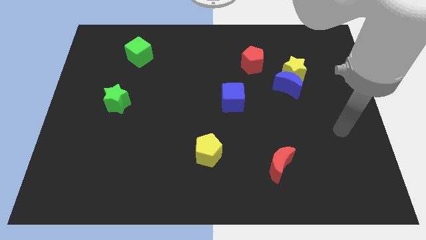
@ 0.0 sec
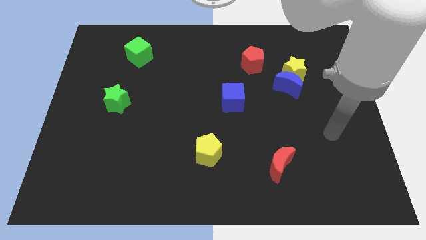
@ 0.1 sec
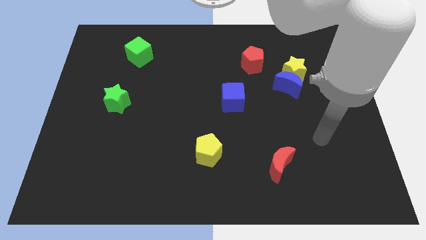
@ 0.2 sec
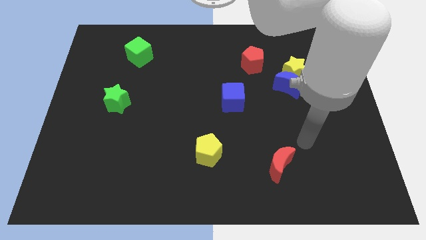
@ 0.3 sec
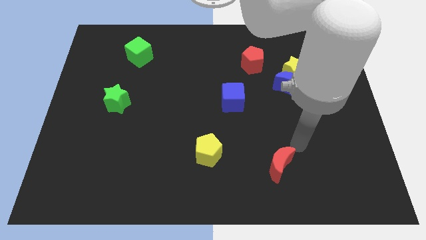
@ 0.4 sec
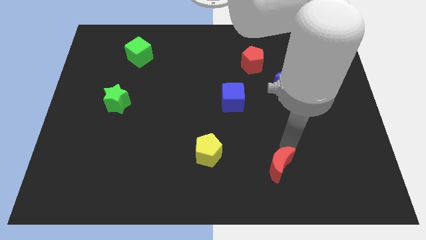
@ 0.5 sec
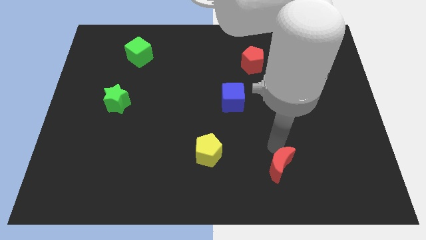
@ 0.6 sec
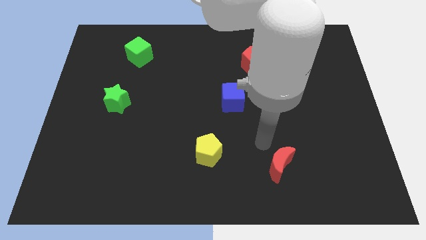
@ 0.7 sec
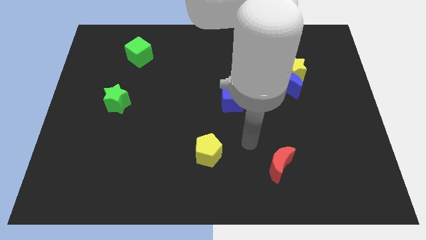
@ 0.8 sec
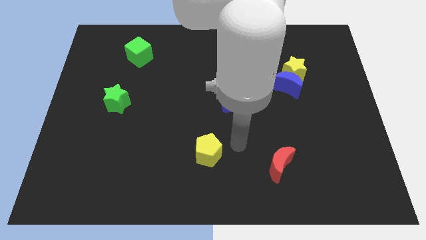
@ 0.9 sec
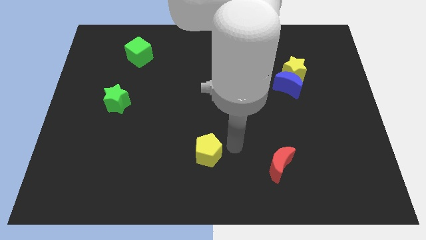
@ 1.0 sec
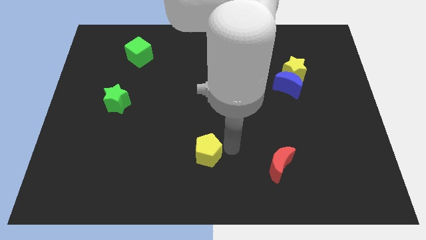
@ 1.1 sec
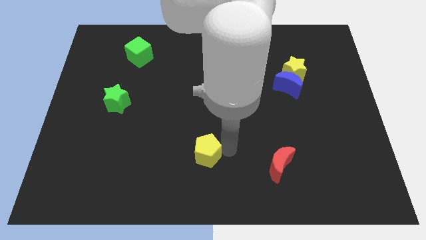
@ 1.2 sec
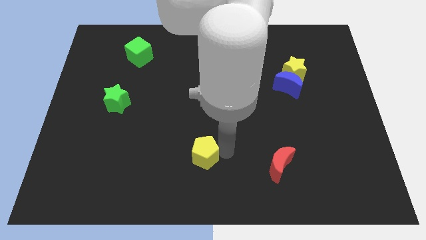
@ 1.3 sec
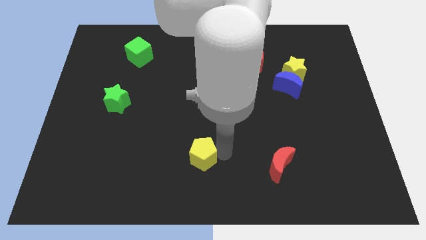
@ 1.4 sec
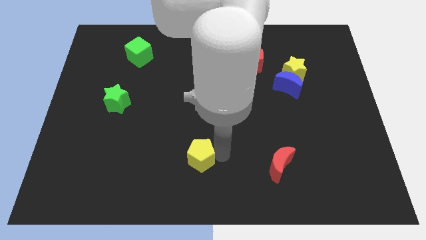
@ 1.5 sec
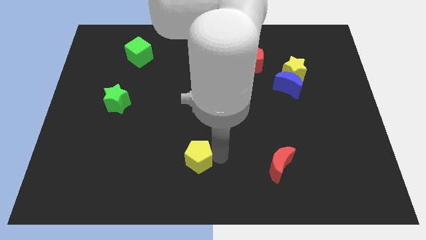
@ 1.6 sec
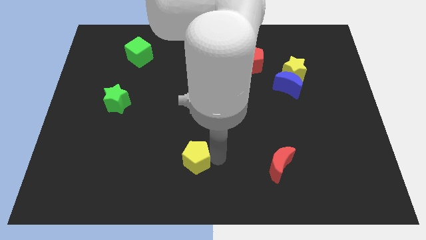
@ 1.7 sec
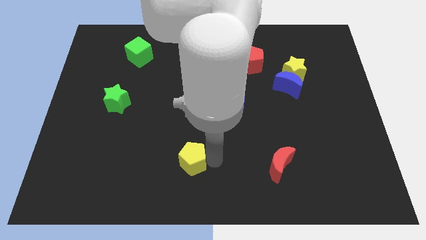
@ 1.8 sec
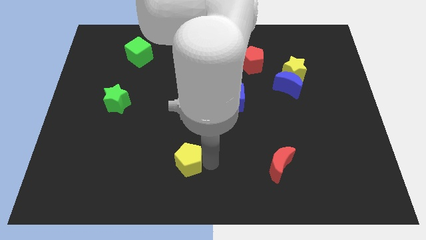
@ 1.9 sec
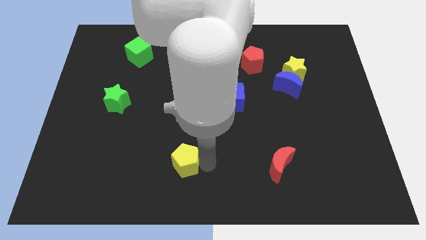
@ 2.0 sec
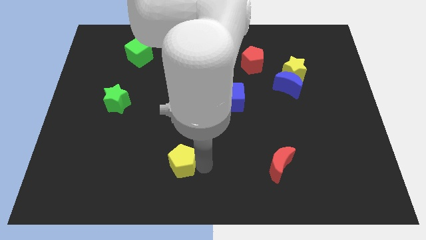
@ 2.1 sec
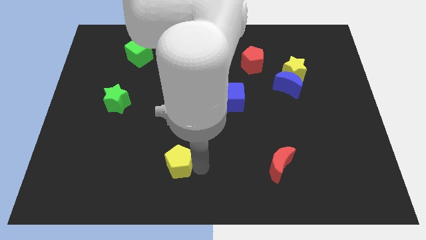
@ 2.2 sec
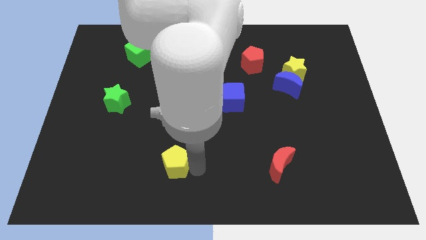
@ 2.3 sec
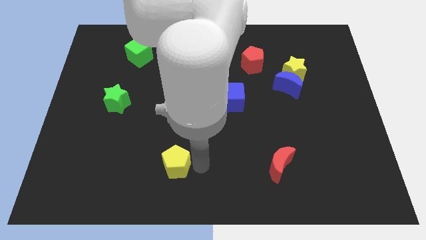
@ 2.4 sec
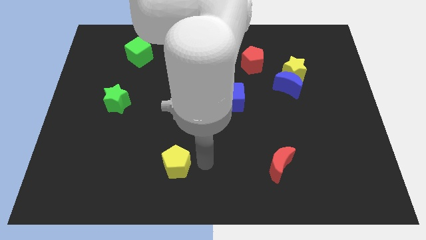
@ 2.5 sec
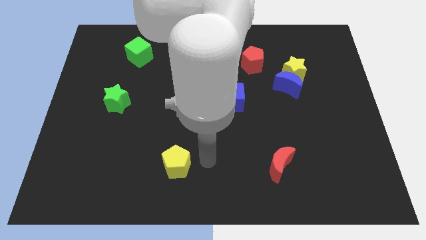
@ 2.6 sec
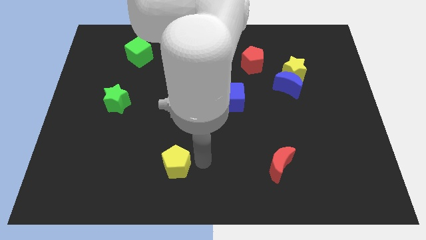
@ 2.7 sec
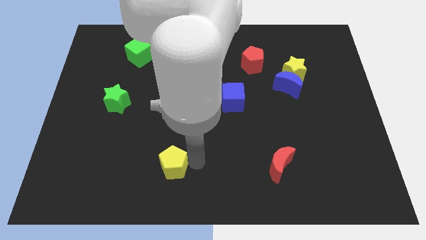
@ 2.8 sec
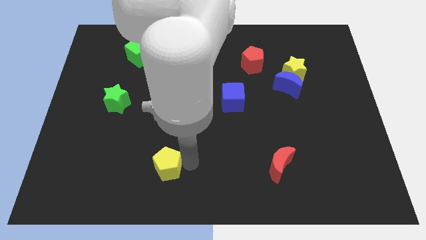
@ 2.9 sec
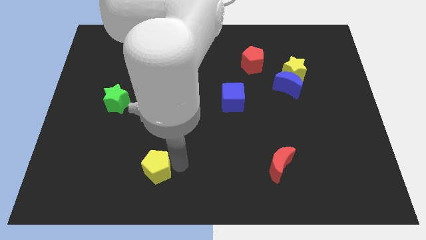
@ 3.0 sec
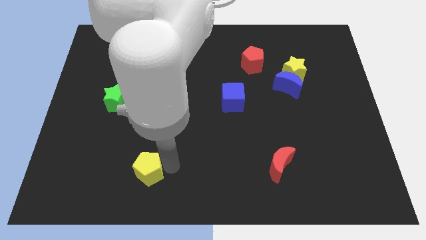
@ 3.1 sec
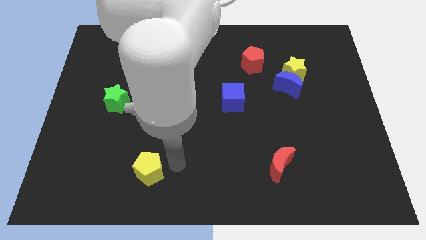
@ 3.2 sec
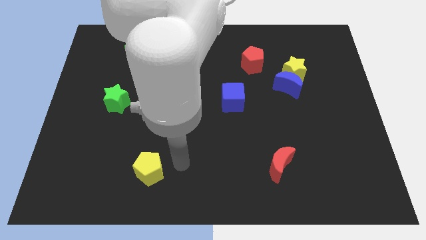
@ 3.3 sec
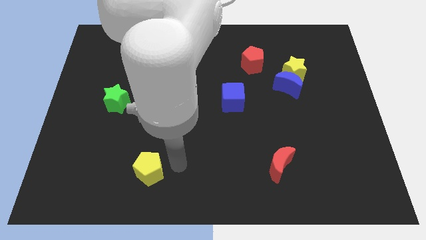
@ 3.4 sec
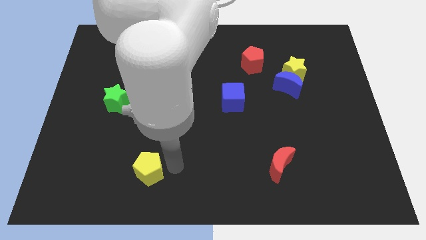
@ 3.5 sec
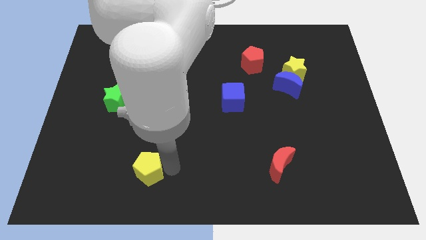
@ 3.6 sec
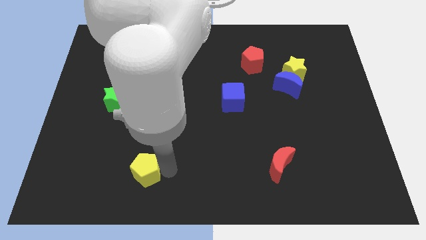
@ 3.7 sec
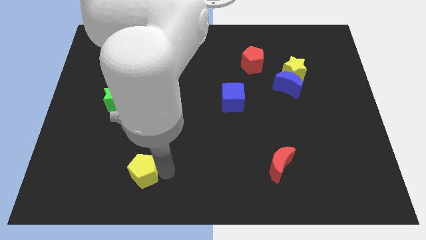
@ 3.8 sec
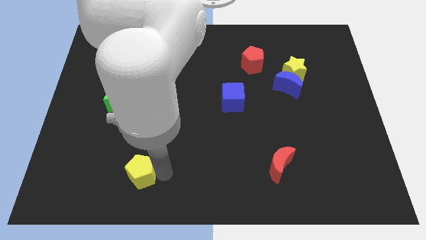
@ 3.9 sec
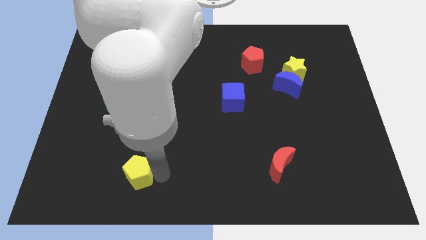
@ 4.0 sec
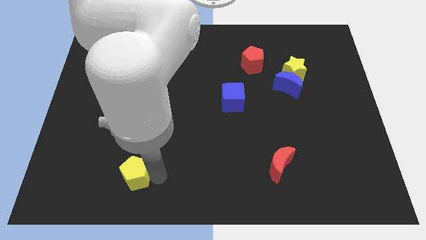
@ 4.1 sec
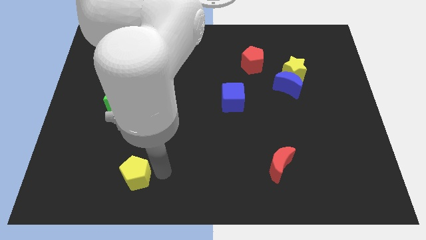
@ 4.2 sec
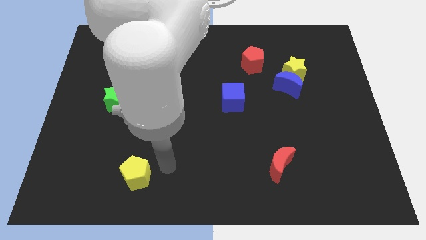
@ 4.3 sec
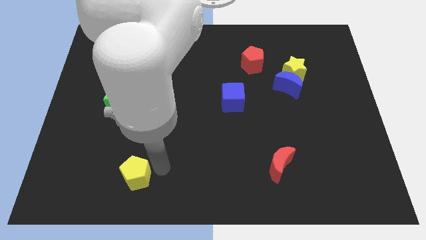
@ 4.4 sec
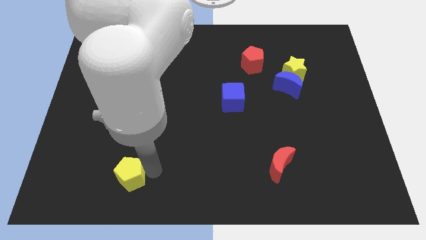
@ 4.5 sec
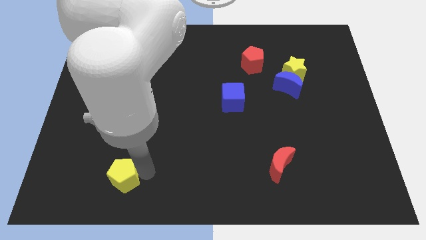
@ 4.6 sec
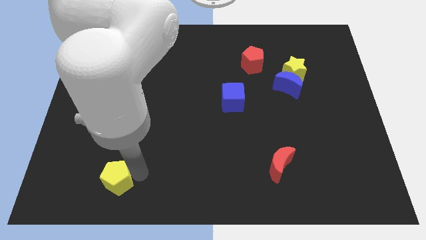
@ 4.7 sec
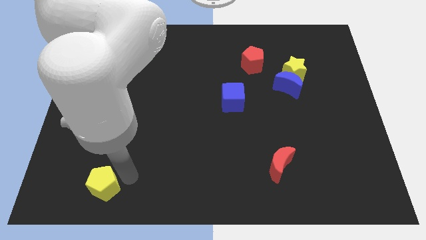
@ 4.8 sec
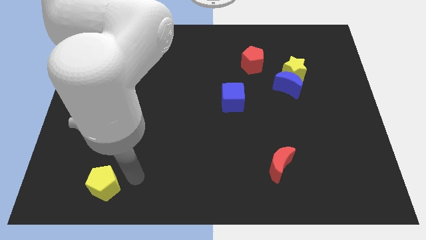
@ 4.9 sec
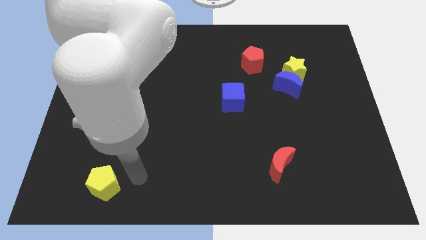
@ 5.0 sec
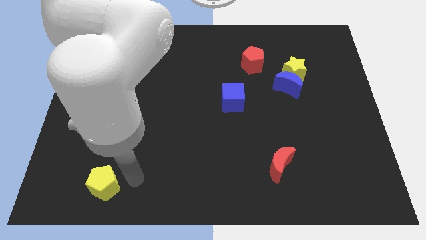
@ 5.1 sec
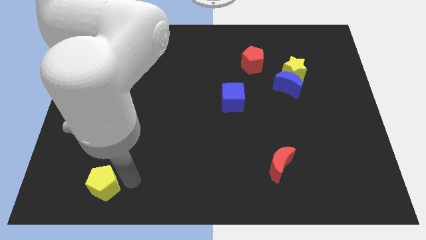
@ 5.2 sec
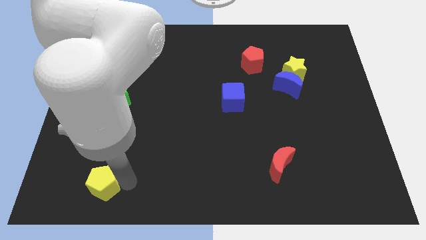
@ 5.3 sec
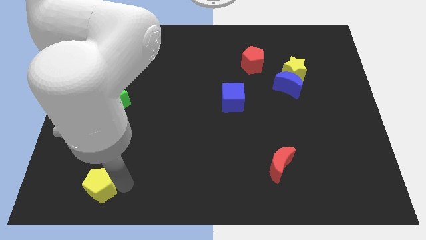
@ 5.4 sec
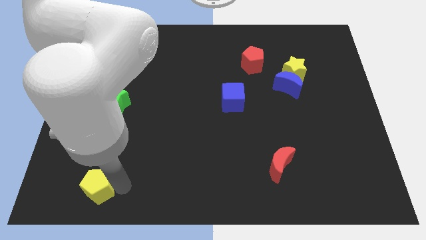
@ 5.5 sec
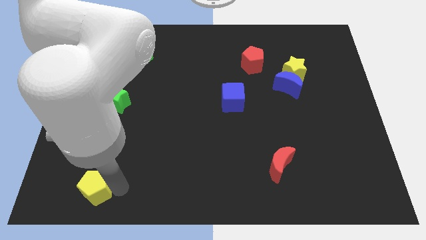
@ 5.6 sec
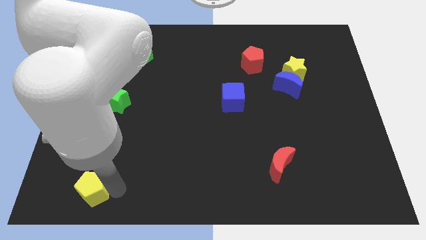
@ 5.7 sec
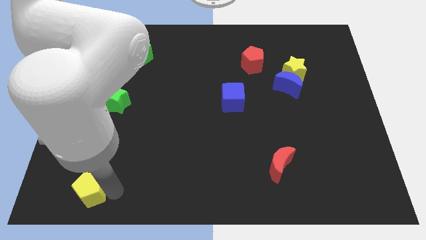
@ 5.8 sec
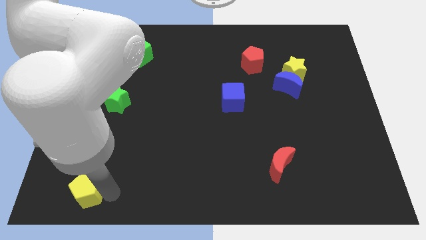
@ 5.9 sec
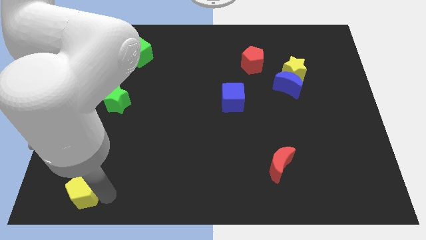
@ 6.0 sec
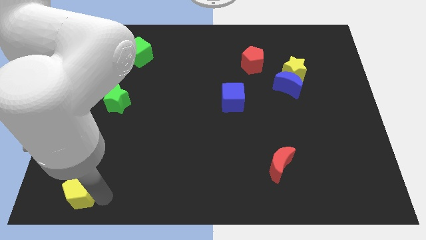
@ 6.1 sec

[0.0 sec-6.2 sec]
put the yellow pentagon to the bottom left corner
